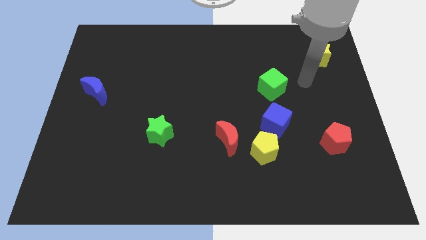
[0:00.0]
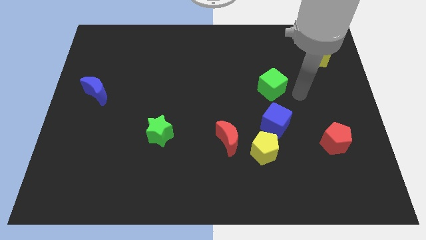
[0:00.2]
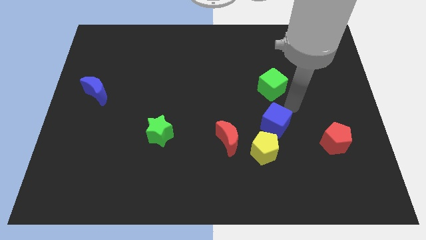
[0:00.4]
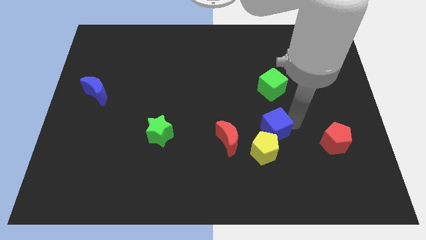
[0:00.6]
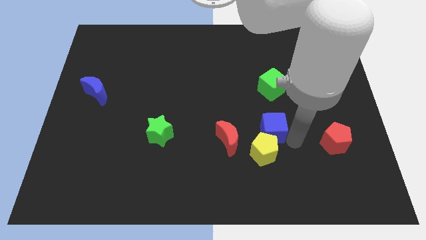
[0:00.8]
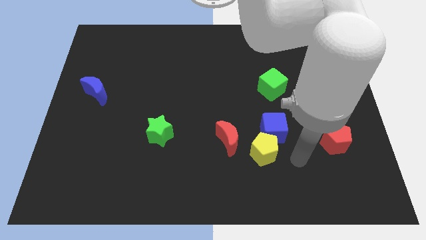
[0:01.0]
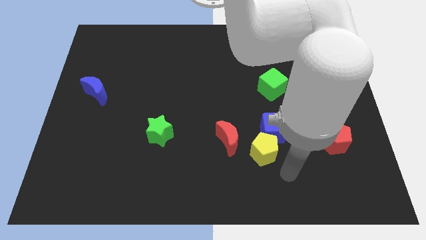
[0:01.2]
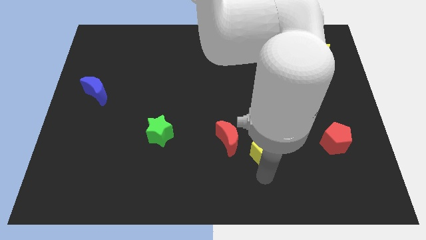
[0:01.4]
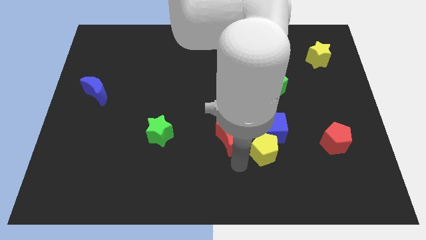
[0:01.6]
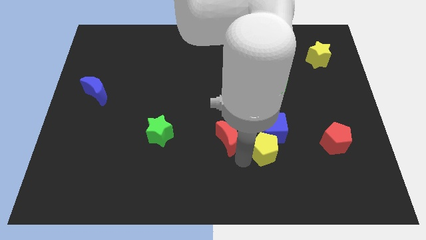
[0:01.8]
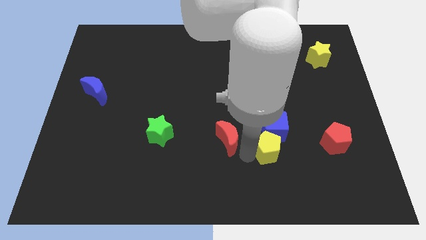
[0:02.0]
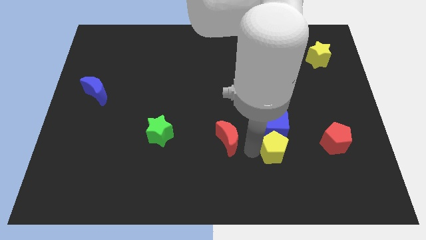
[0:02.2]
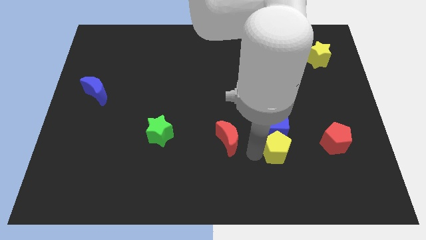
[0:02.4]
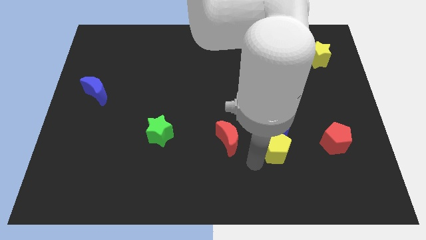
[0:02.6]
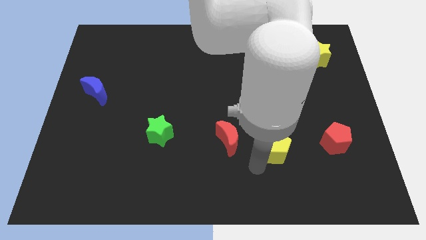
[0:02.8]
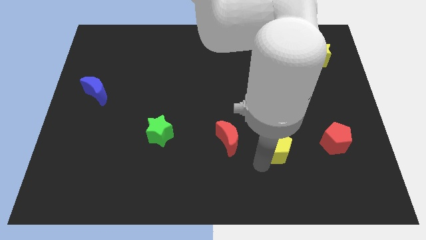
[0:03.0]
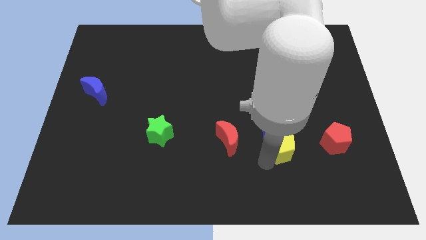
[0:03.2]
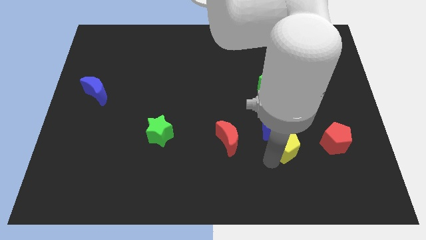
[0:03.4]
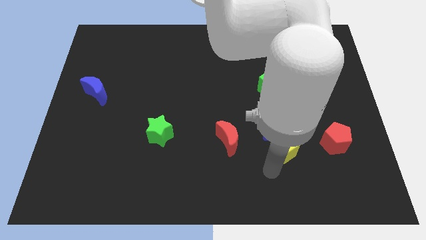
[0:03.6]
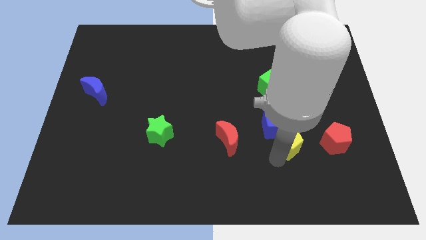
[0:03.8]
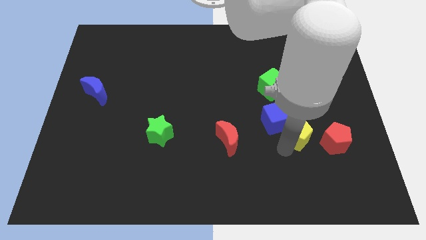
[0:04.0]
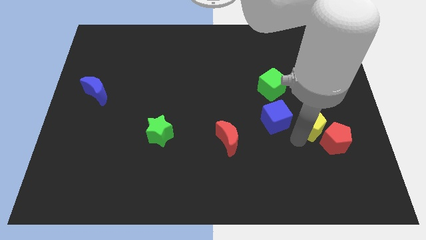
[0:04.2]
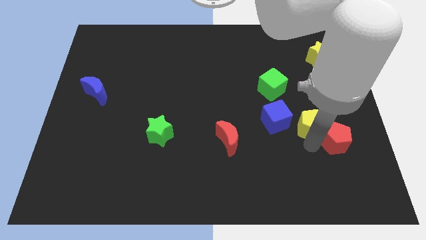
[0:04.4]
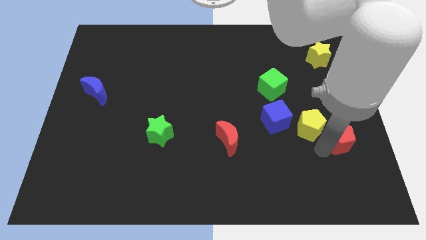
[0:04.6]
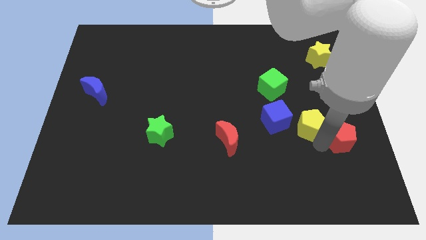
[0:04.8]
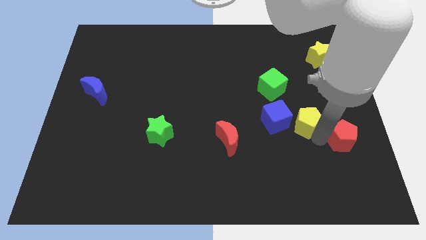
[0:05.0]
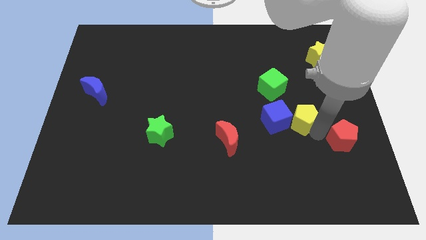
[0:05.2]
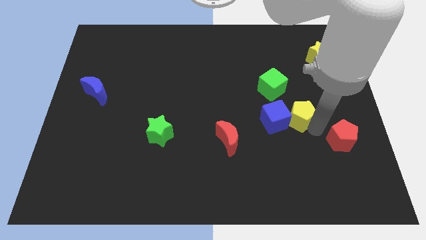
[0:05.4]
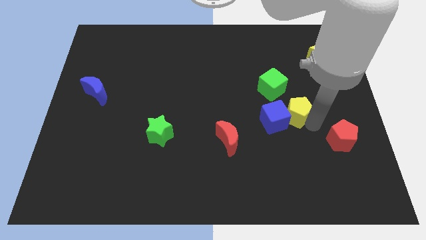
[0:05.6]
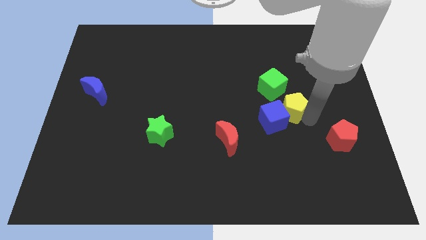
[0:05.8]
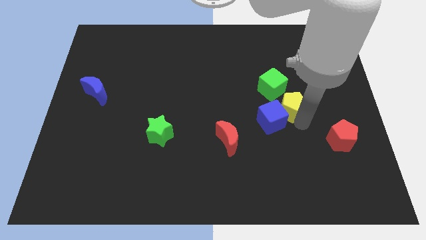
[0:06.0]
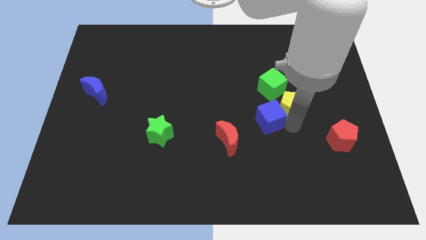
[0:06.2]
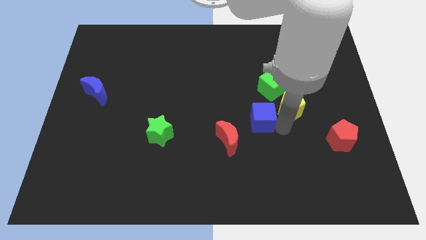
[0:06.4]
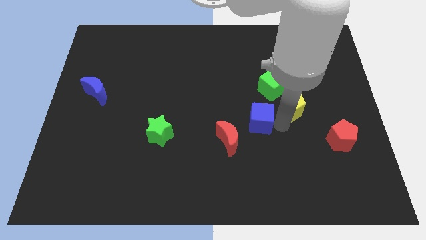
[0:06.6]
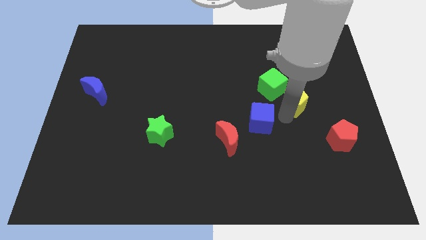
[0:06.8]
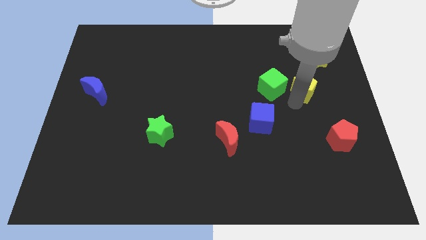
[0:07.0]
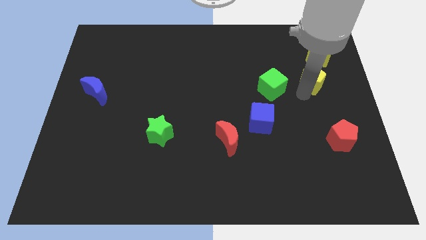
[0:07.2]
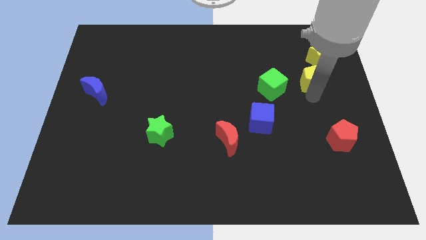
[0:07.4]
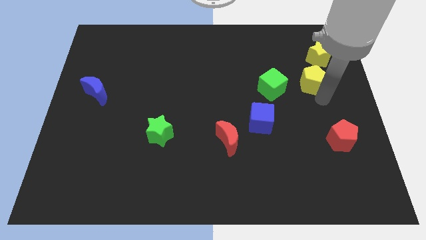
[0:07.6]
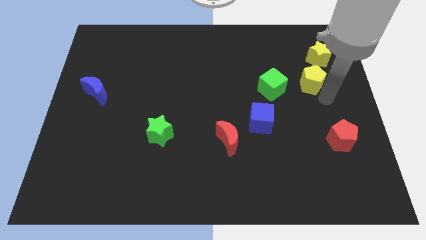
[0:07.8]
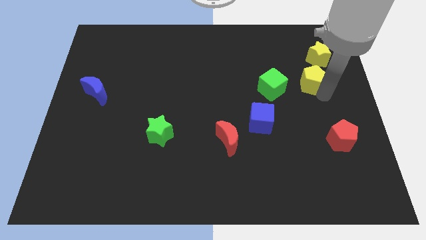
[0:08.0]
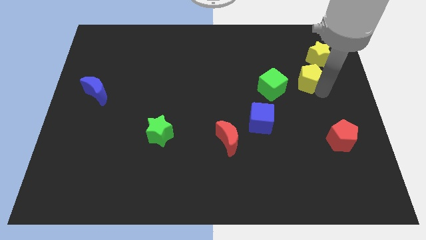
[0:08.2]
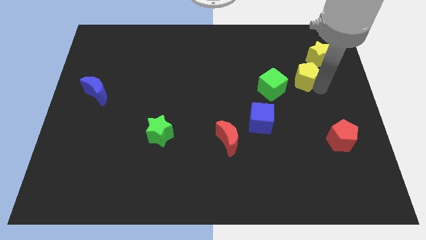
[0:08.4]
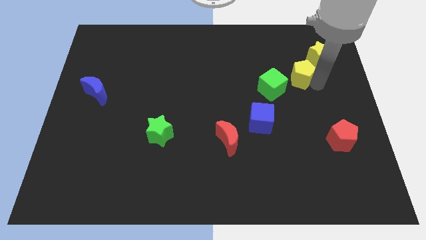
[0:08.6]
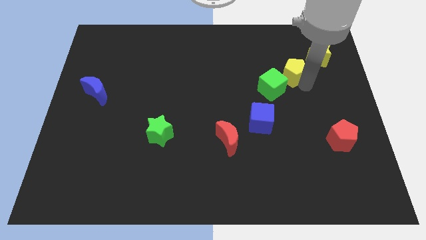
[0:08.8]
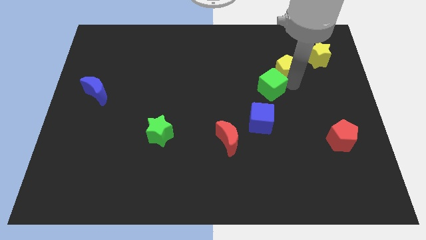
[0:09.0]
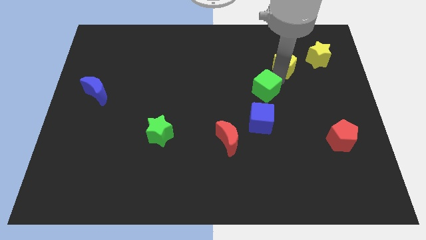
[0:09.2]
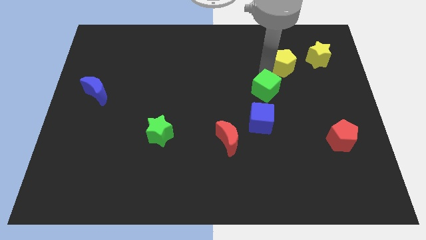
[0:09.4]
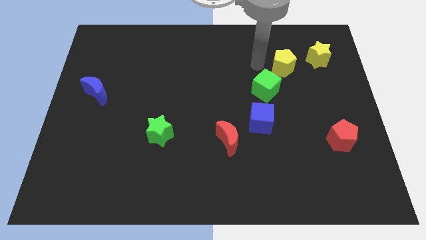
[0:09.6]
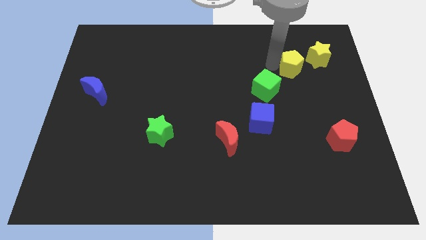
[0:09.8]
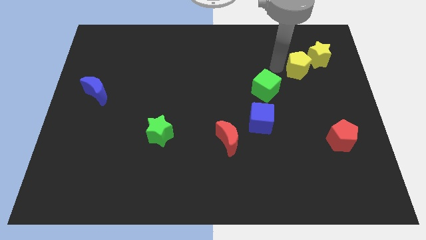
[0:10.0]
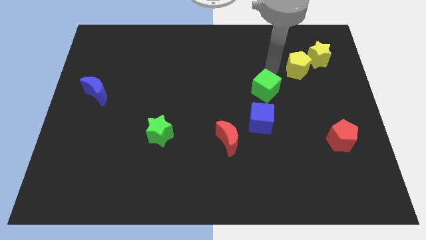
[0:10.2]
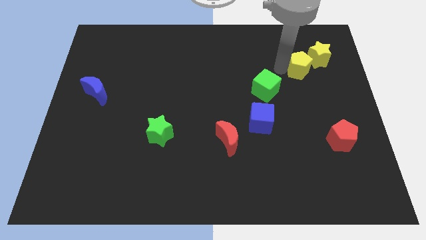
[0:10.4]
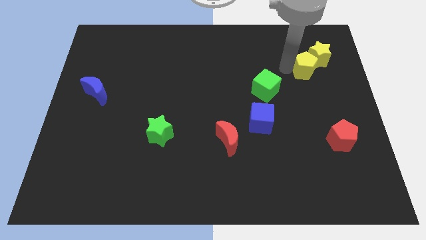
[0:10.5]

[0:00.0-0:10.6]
push the yellow pentagon next to the yellow star

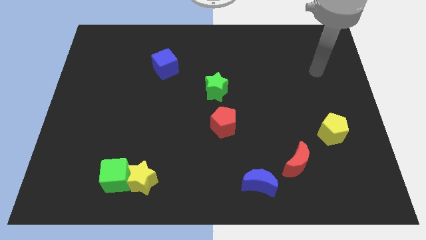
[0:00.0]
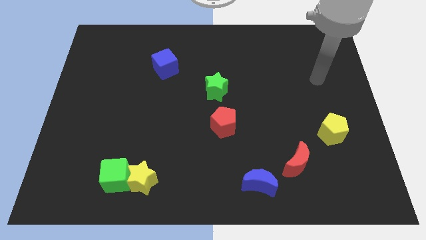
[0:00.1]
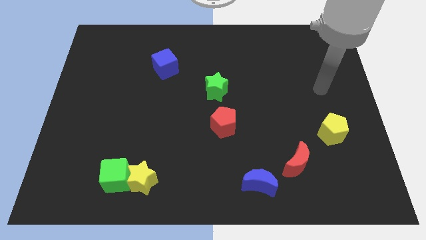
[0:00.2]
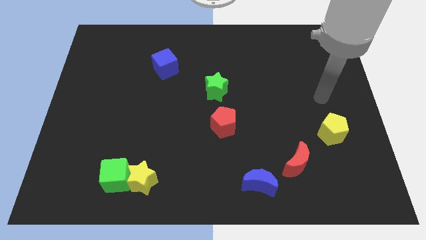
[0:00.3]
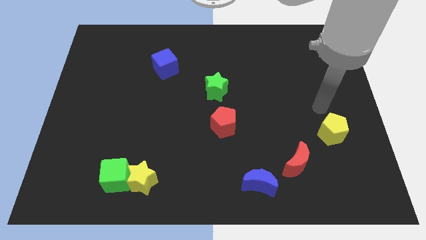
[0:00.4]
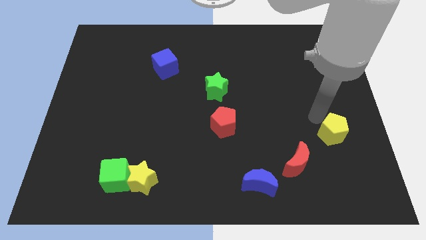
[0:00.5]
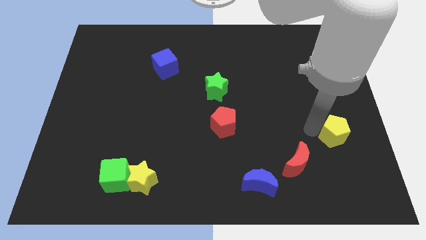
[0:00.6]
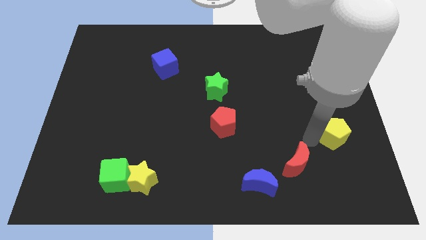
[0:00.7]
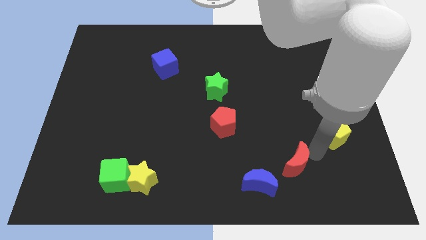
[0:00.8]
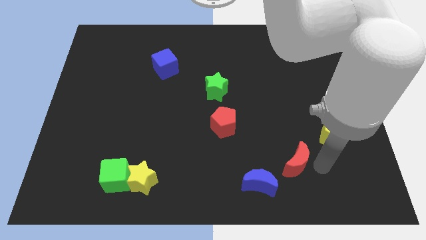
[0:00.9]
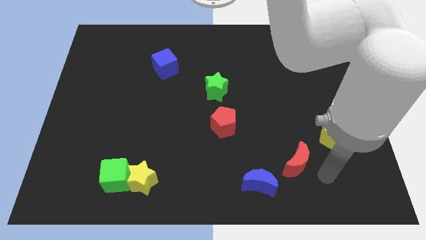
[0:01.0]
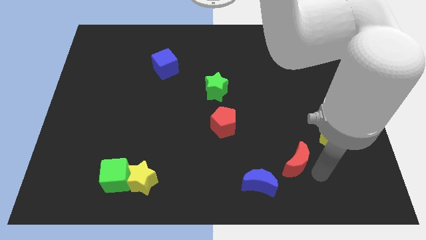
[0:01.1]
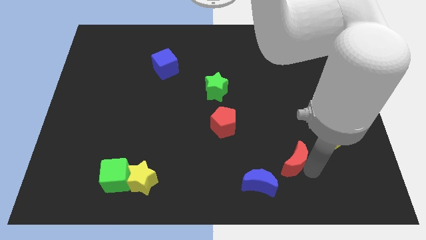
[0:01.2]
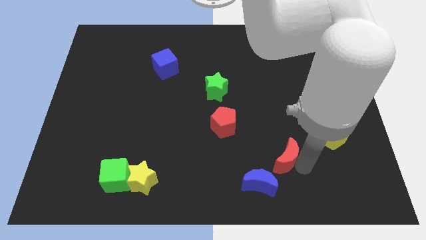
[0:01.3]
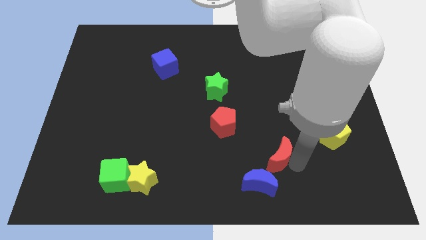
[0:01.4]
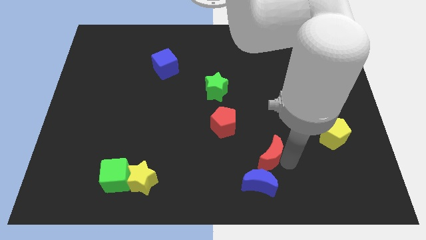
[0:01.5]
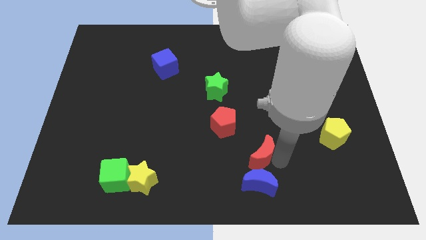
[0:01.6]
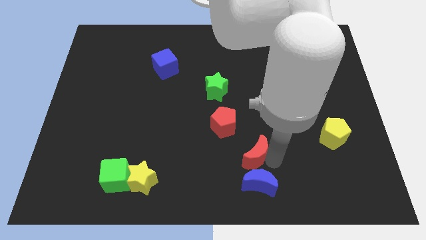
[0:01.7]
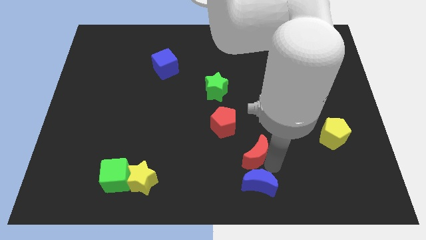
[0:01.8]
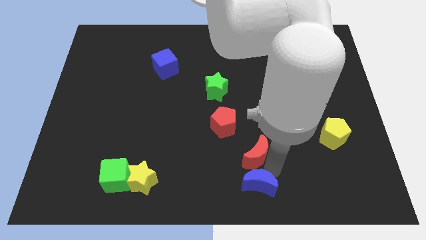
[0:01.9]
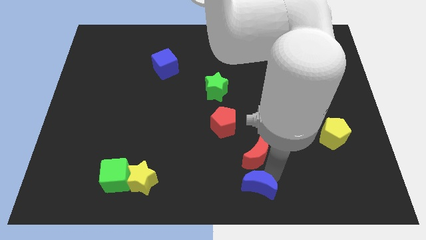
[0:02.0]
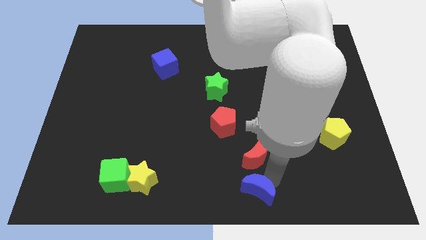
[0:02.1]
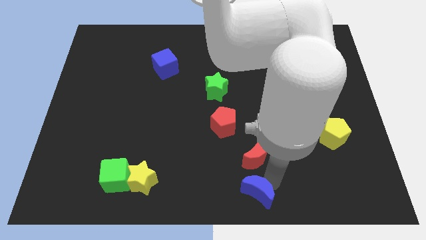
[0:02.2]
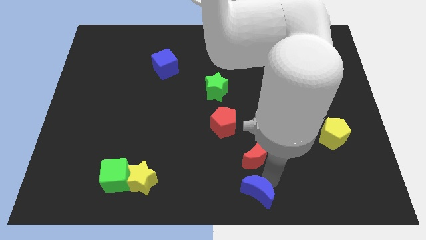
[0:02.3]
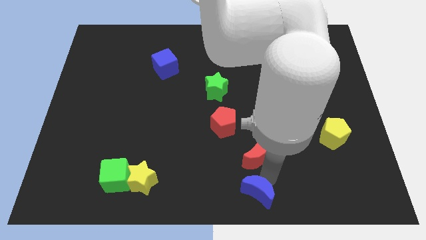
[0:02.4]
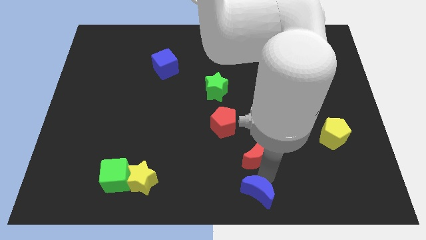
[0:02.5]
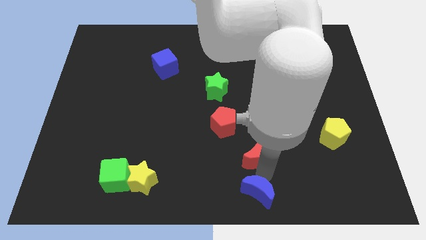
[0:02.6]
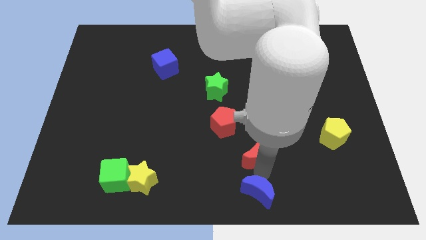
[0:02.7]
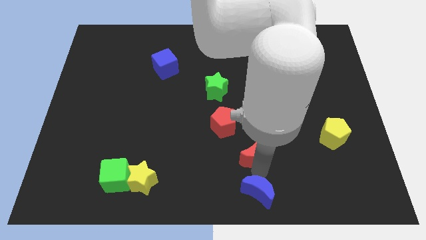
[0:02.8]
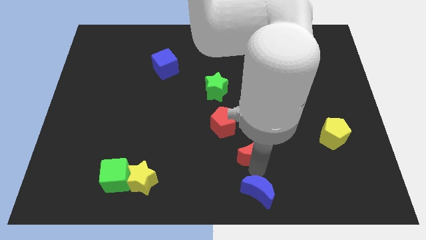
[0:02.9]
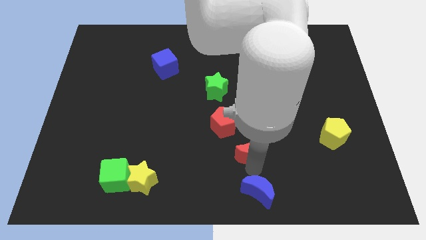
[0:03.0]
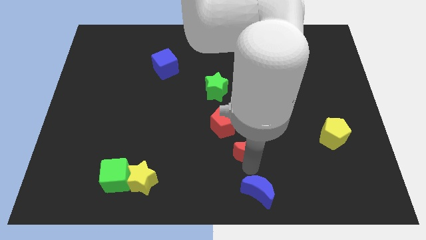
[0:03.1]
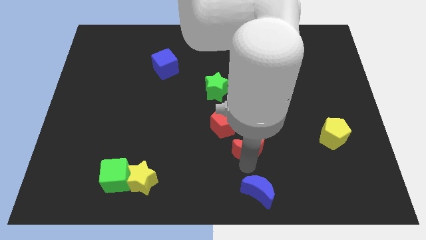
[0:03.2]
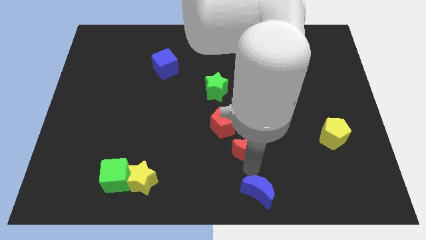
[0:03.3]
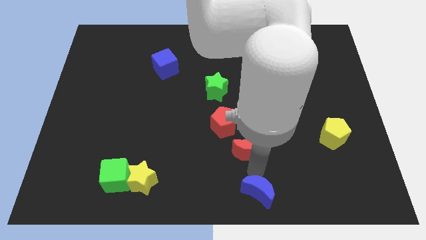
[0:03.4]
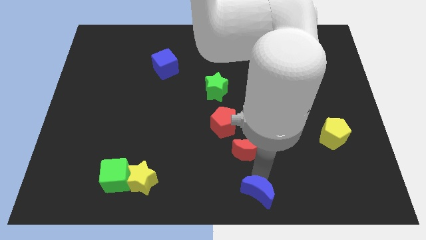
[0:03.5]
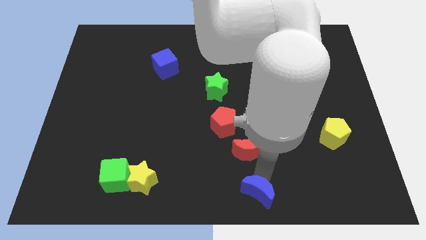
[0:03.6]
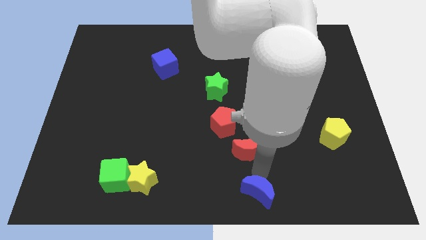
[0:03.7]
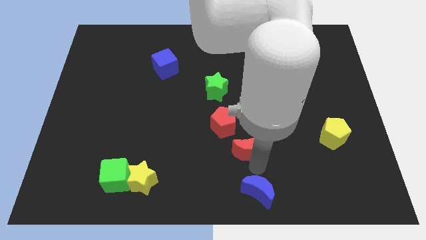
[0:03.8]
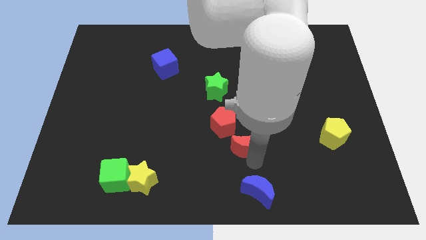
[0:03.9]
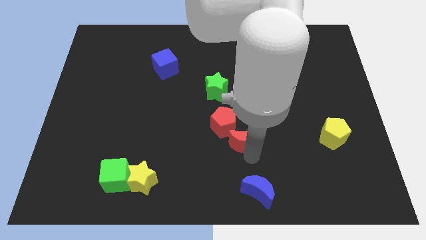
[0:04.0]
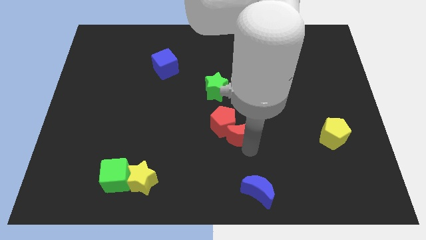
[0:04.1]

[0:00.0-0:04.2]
push the red moon towards the red pentagon
